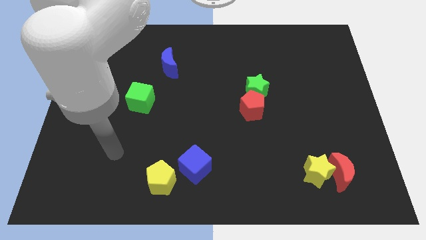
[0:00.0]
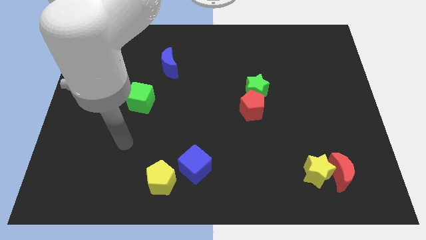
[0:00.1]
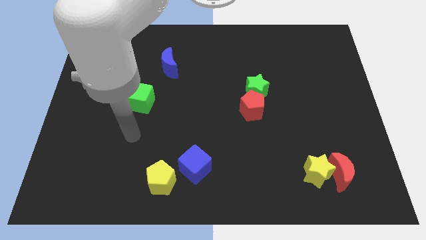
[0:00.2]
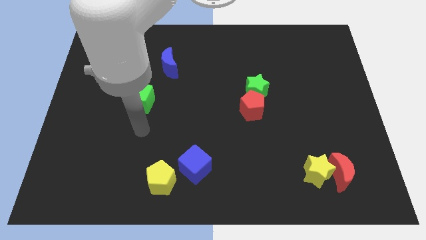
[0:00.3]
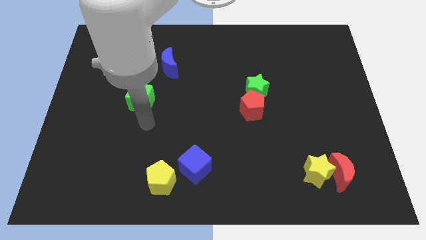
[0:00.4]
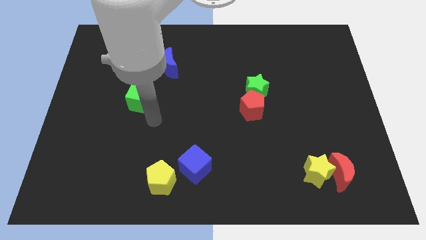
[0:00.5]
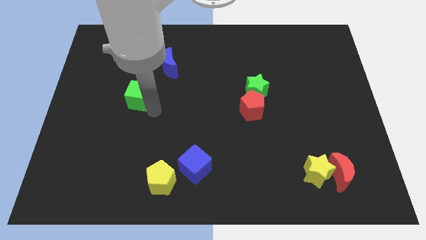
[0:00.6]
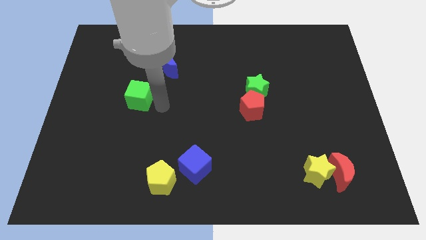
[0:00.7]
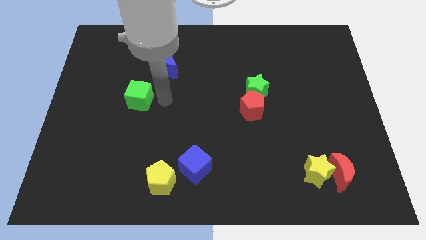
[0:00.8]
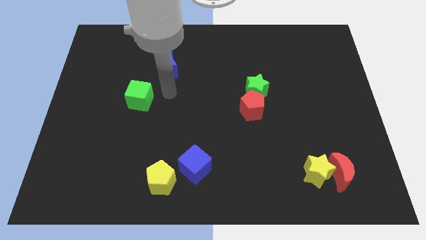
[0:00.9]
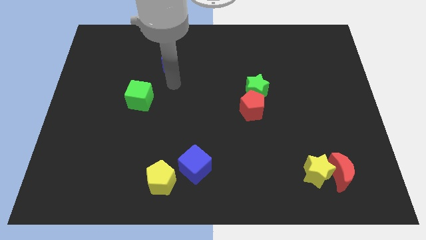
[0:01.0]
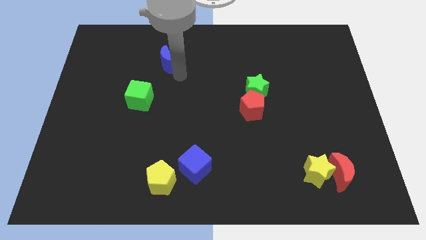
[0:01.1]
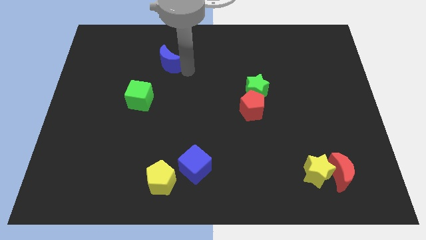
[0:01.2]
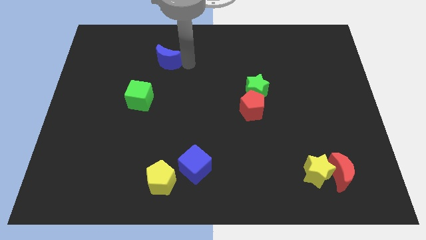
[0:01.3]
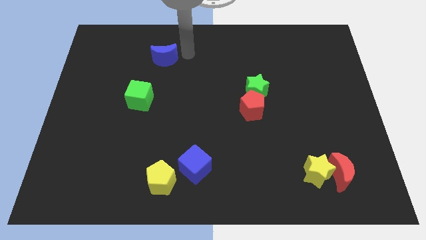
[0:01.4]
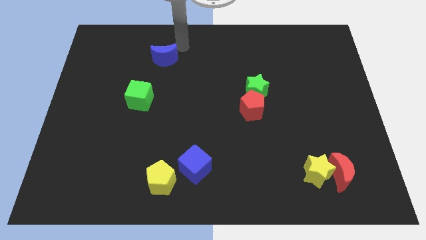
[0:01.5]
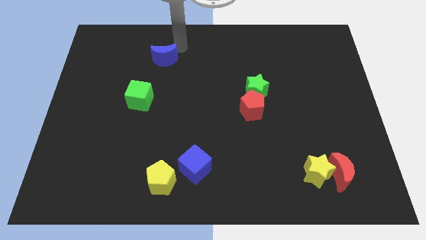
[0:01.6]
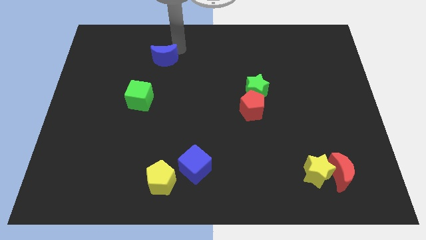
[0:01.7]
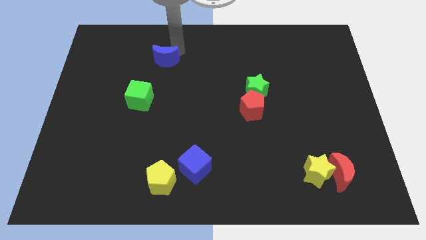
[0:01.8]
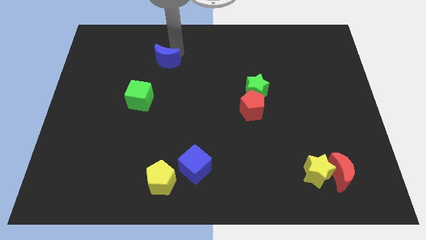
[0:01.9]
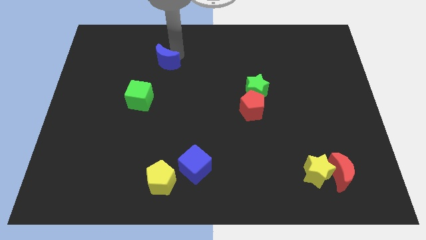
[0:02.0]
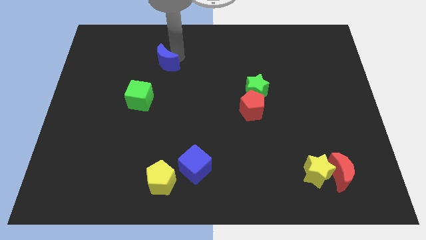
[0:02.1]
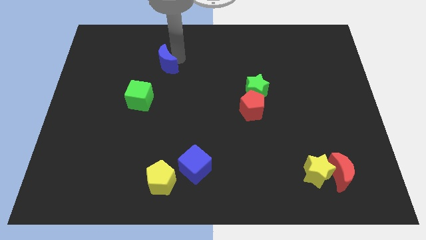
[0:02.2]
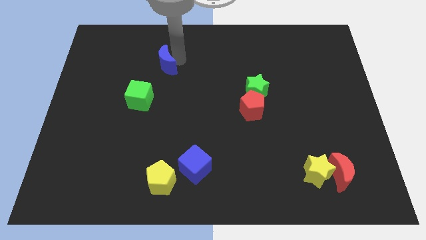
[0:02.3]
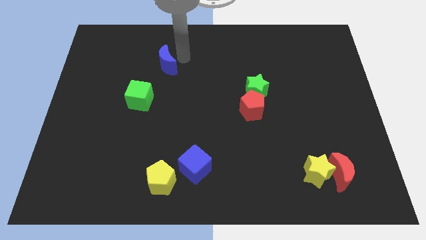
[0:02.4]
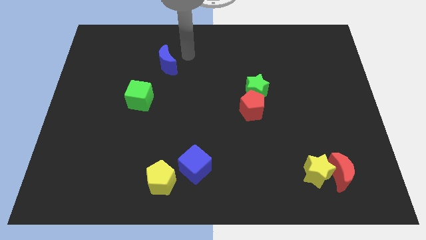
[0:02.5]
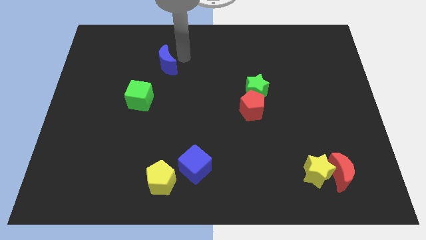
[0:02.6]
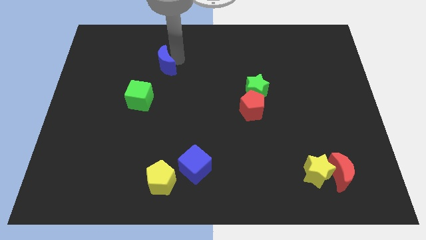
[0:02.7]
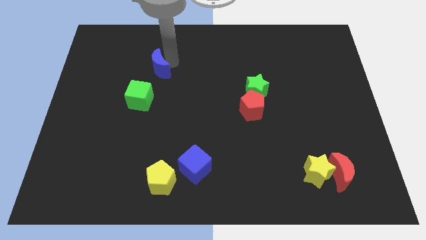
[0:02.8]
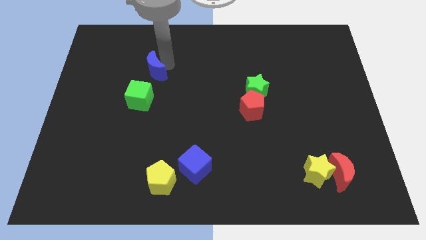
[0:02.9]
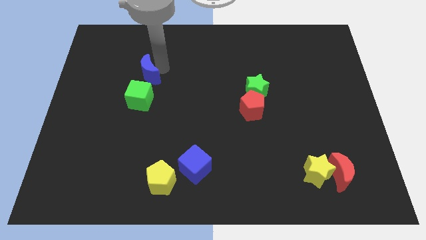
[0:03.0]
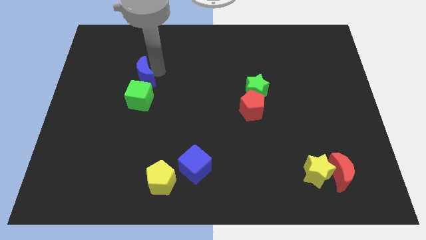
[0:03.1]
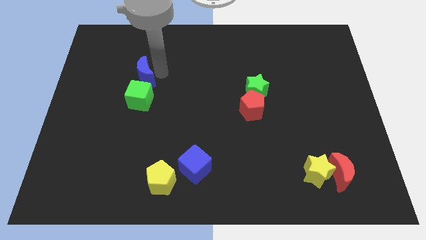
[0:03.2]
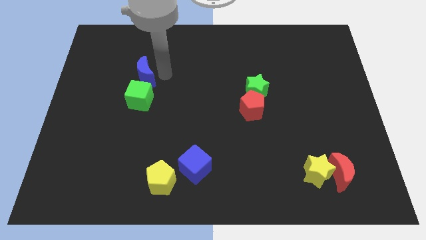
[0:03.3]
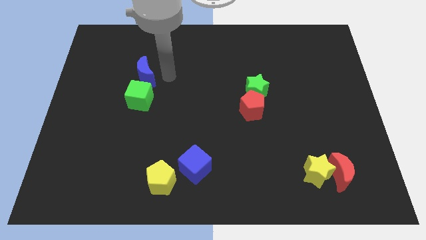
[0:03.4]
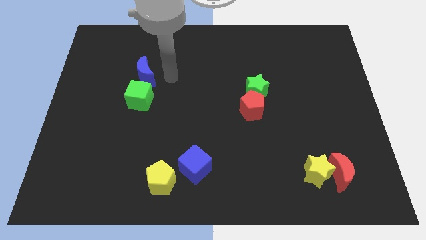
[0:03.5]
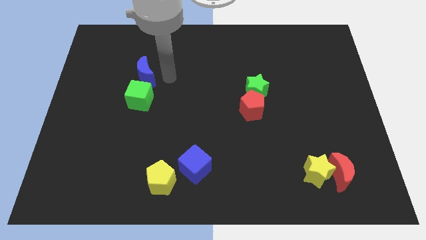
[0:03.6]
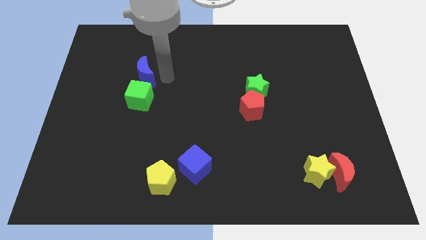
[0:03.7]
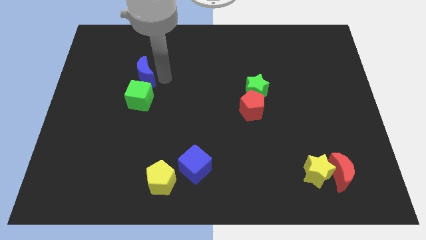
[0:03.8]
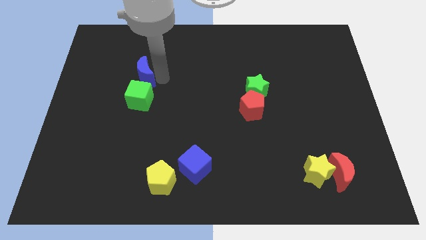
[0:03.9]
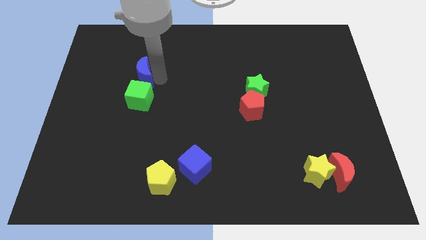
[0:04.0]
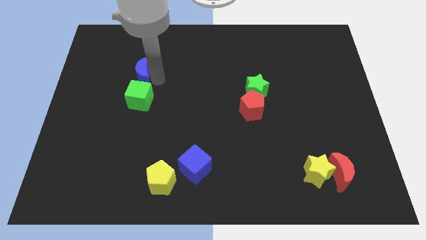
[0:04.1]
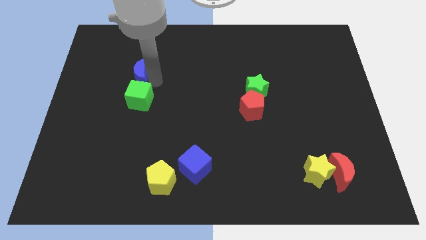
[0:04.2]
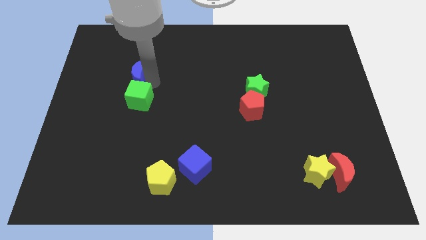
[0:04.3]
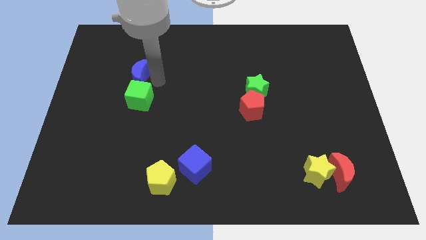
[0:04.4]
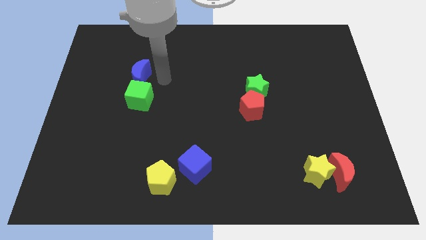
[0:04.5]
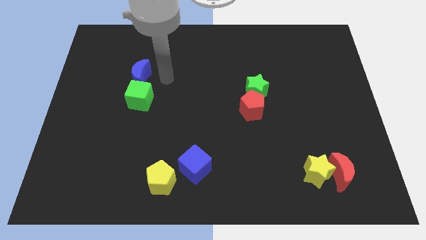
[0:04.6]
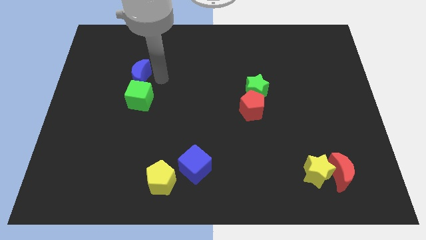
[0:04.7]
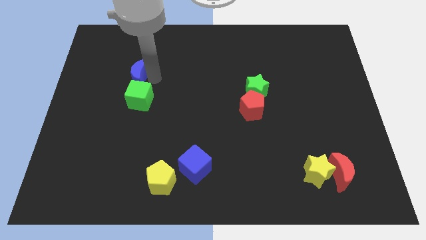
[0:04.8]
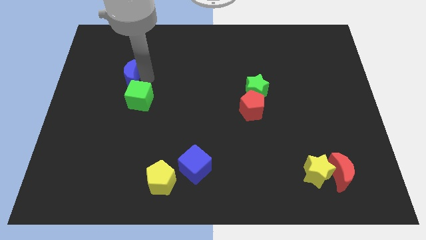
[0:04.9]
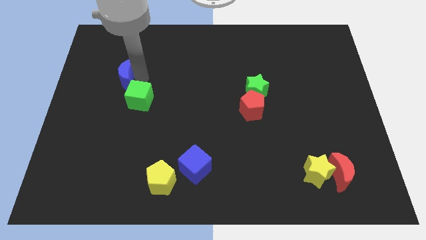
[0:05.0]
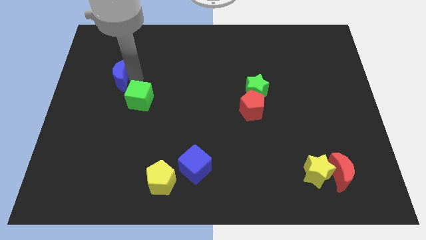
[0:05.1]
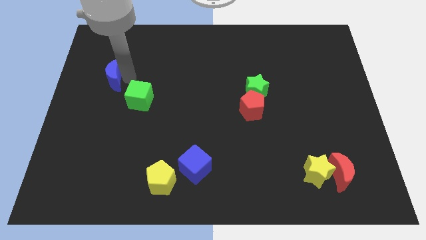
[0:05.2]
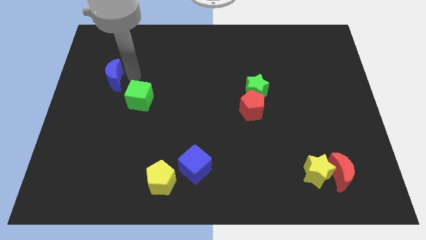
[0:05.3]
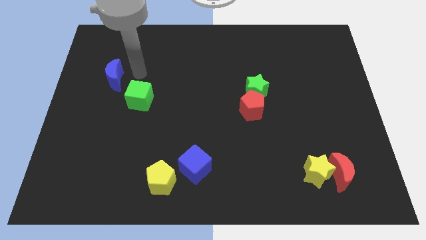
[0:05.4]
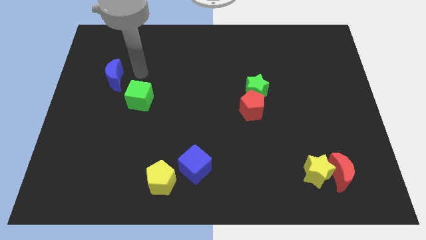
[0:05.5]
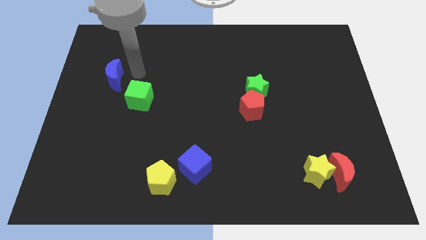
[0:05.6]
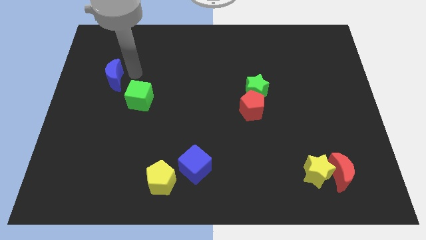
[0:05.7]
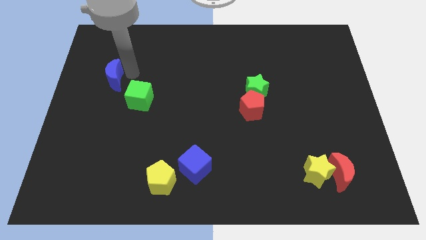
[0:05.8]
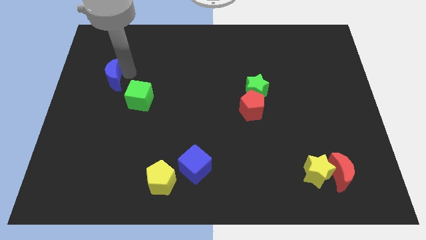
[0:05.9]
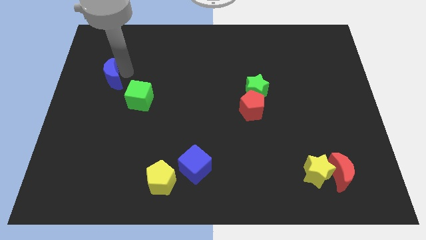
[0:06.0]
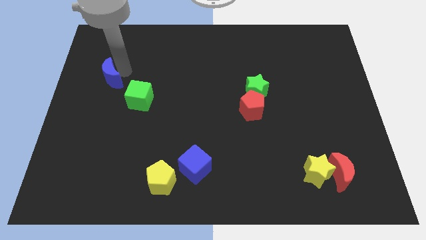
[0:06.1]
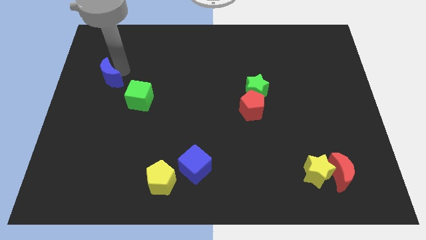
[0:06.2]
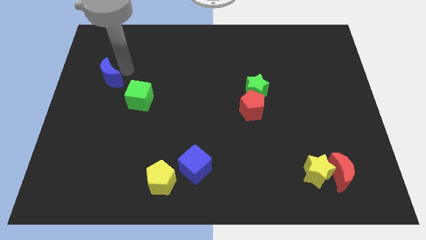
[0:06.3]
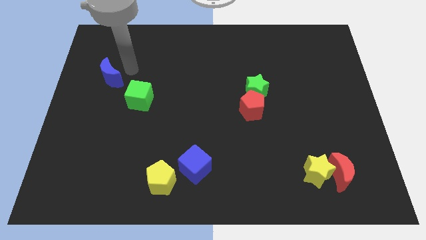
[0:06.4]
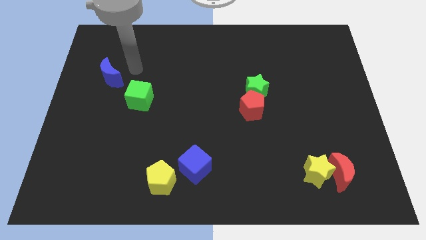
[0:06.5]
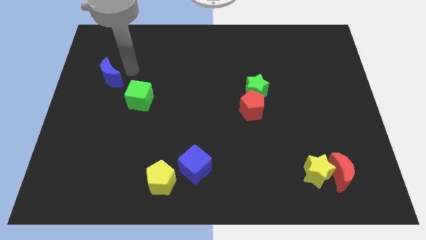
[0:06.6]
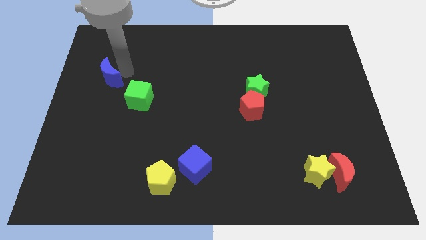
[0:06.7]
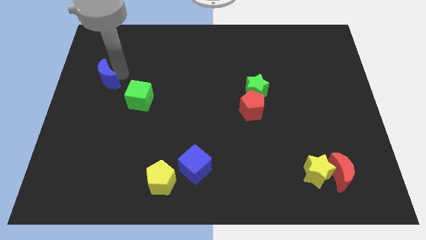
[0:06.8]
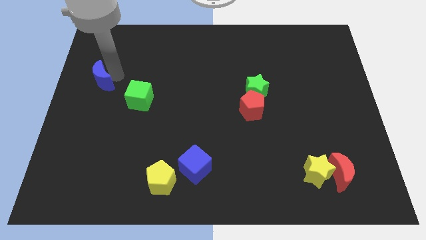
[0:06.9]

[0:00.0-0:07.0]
push the blue moon to the center left
